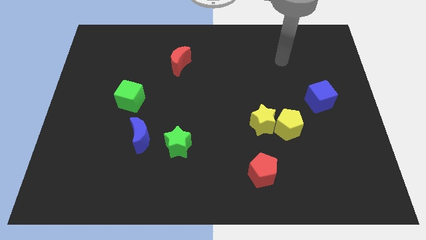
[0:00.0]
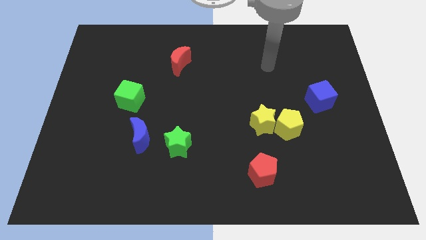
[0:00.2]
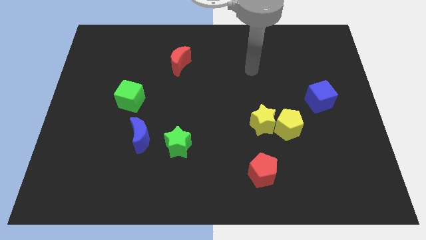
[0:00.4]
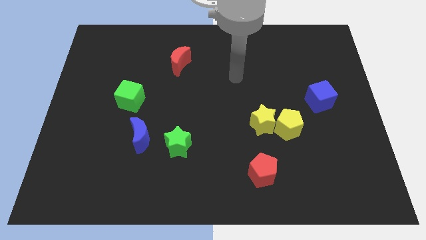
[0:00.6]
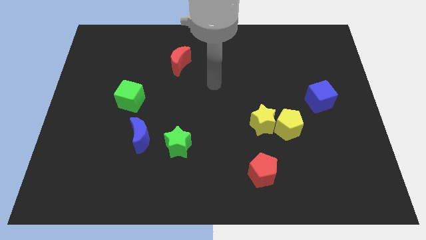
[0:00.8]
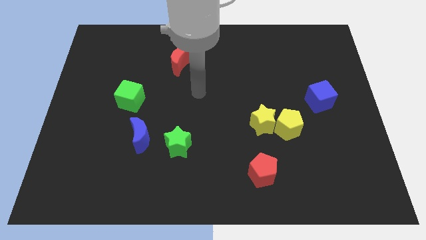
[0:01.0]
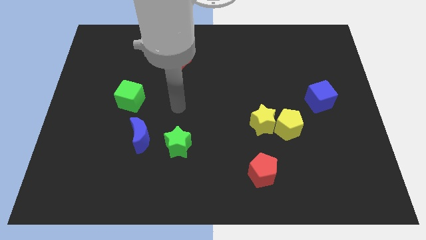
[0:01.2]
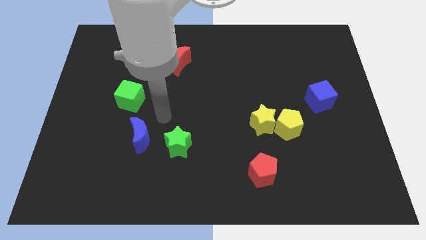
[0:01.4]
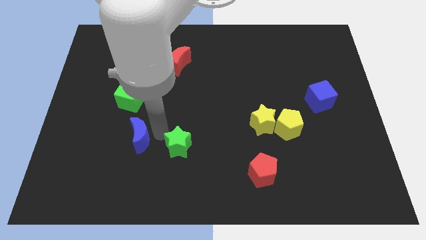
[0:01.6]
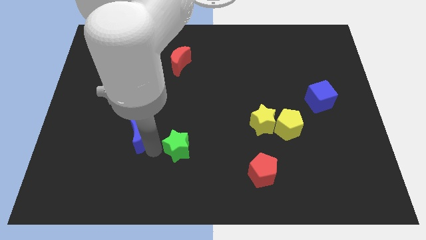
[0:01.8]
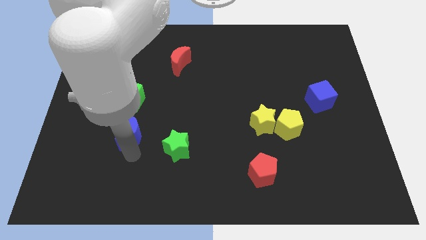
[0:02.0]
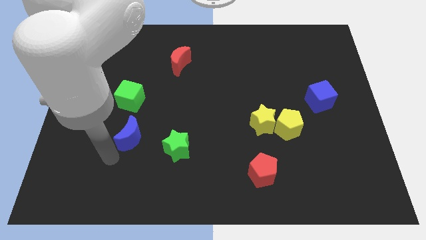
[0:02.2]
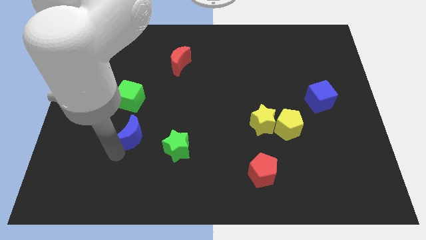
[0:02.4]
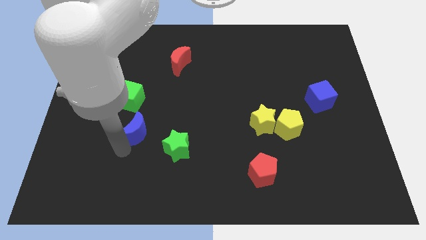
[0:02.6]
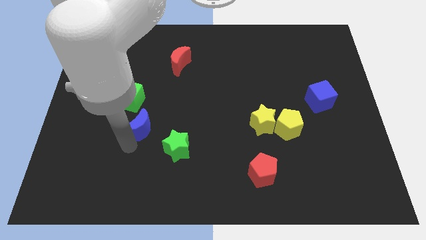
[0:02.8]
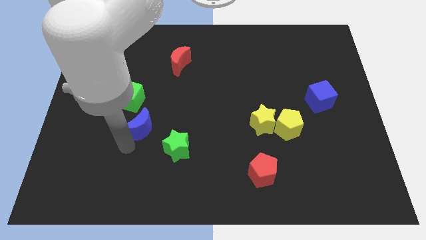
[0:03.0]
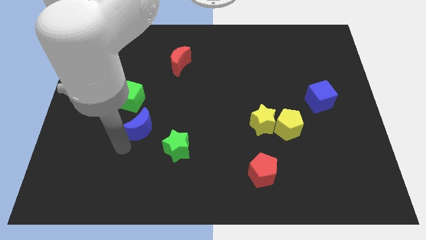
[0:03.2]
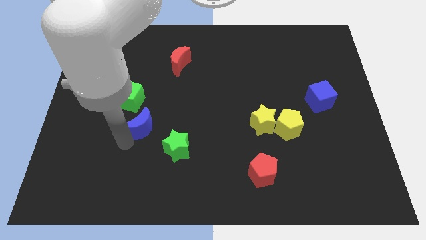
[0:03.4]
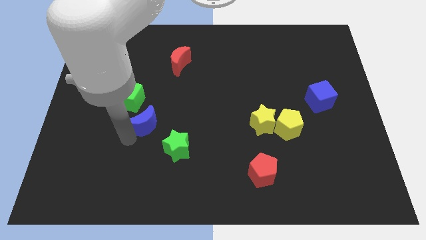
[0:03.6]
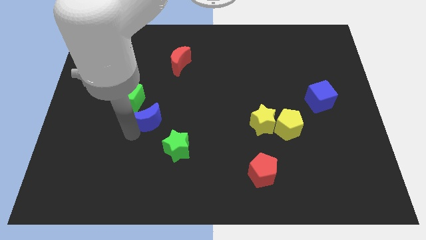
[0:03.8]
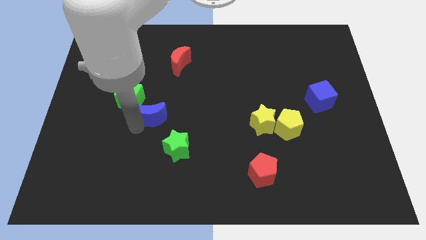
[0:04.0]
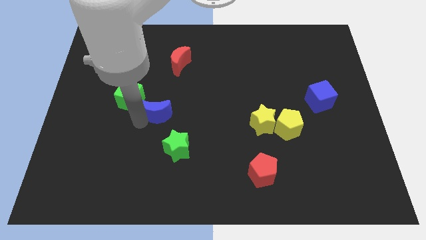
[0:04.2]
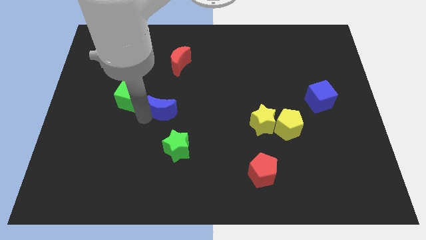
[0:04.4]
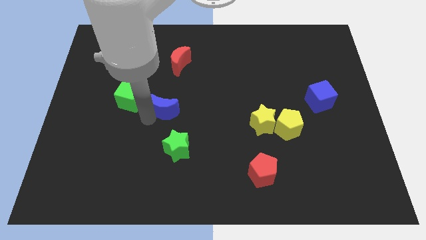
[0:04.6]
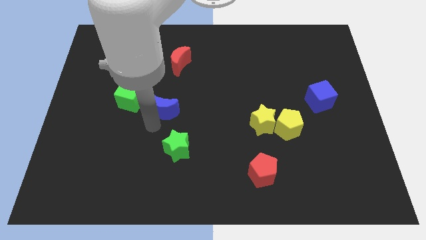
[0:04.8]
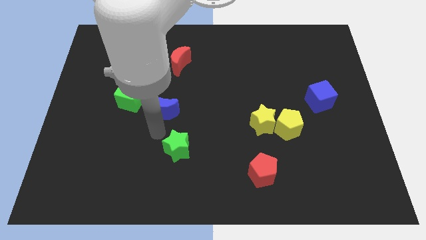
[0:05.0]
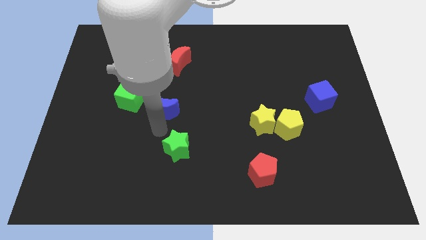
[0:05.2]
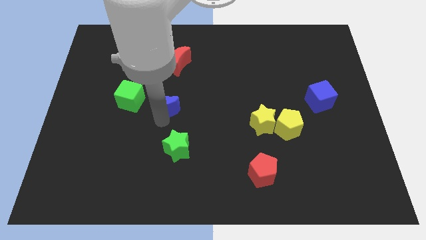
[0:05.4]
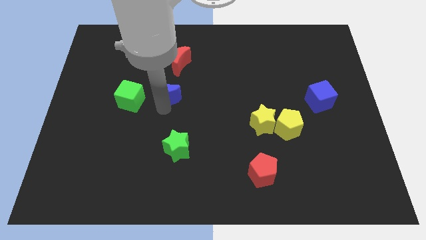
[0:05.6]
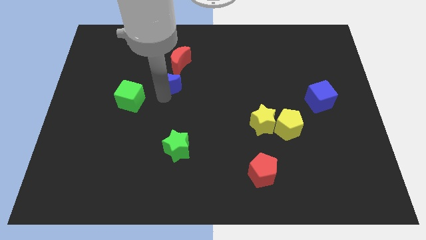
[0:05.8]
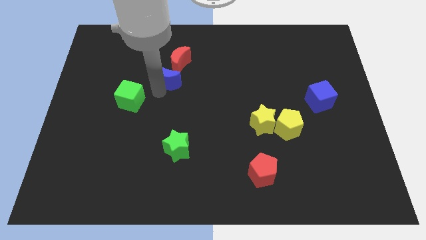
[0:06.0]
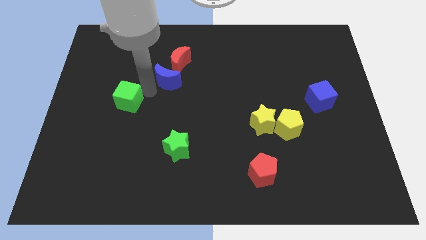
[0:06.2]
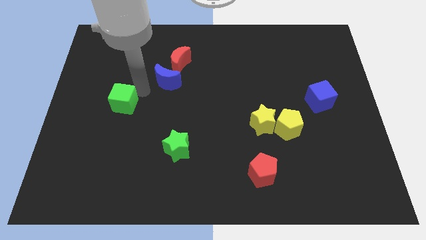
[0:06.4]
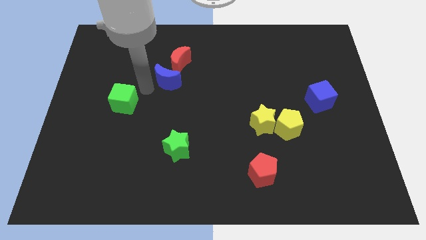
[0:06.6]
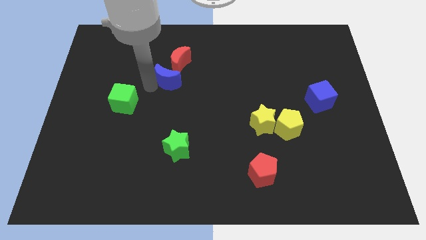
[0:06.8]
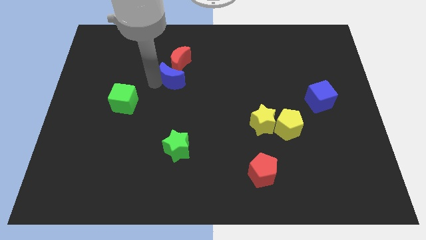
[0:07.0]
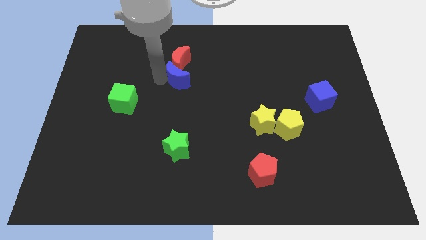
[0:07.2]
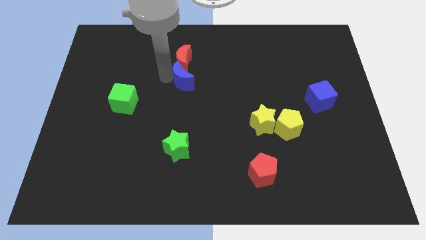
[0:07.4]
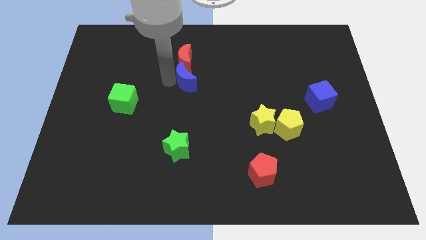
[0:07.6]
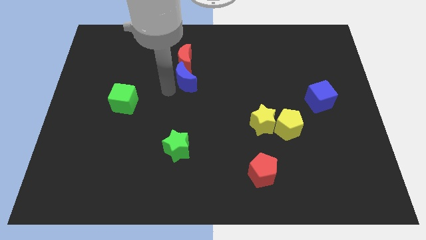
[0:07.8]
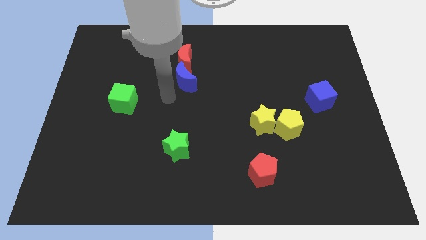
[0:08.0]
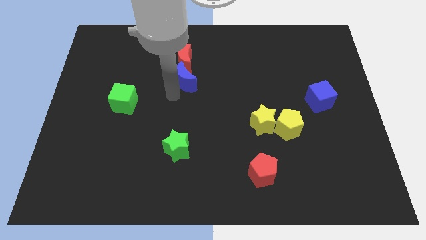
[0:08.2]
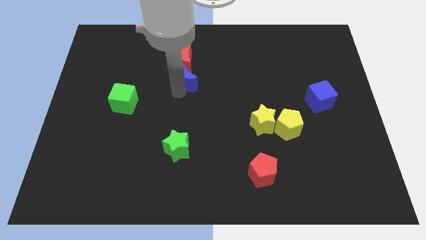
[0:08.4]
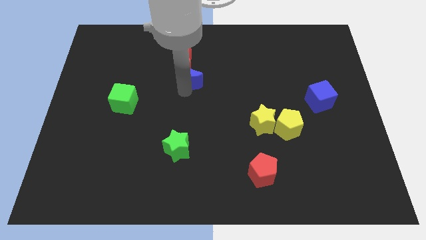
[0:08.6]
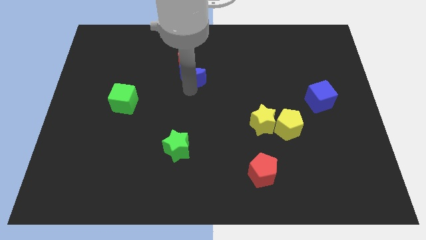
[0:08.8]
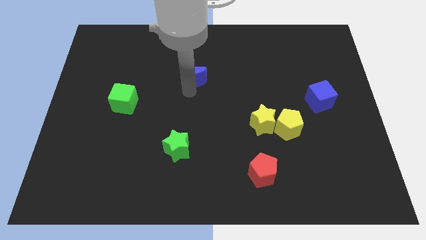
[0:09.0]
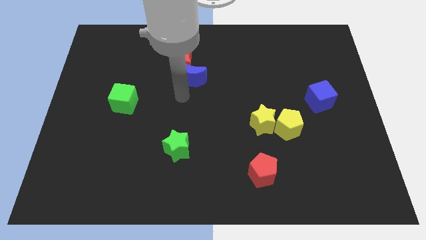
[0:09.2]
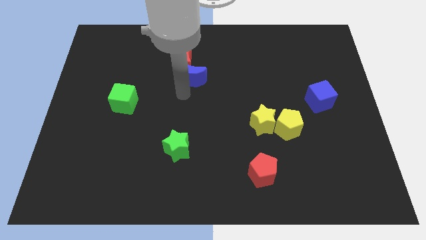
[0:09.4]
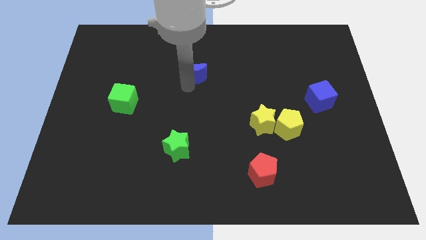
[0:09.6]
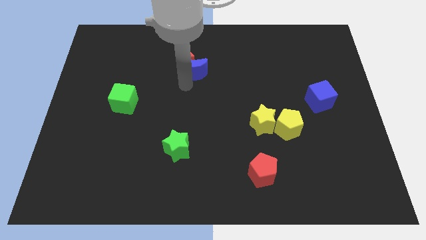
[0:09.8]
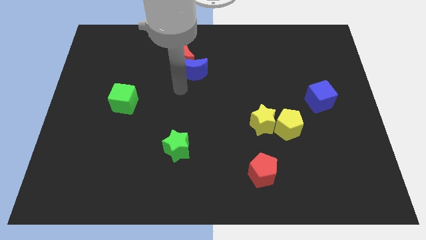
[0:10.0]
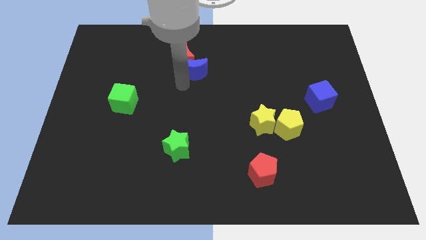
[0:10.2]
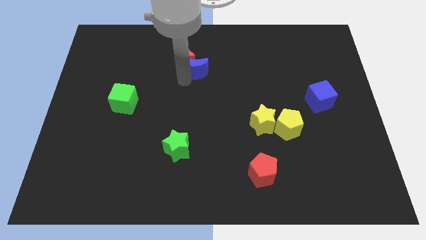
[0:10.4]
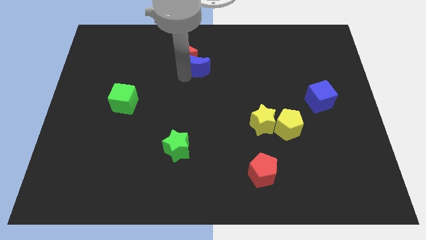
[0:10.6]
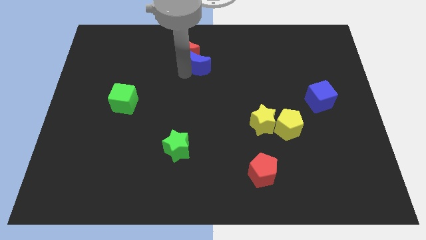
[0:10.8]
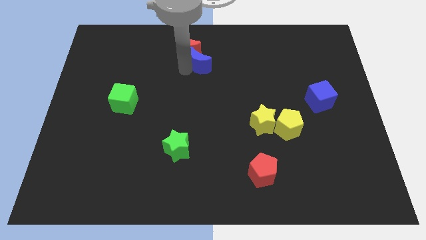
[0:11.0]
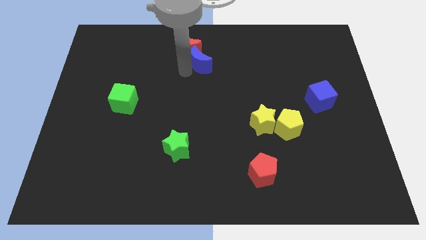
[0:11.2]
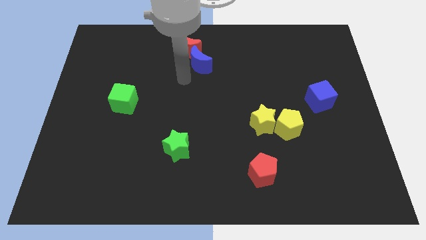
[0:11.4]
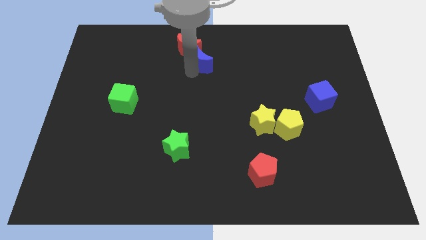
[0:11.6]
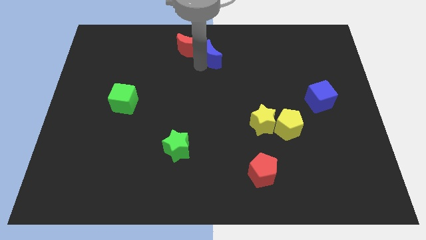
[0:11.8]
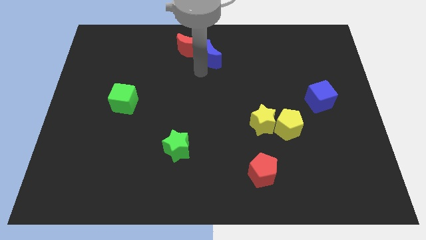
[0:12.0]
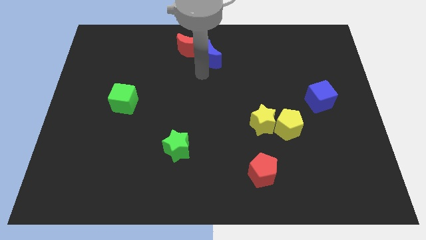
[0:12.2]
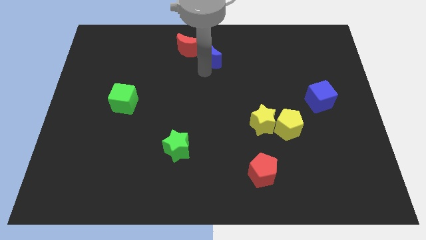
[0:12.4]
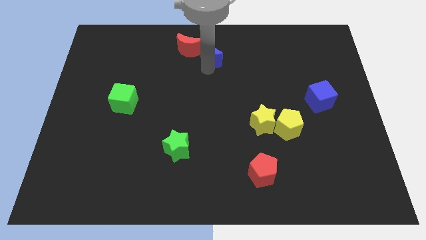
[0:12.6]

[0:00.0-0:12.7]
put the blue moon to the top
